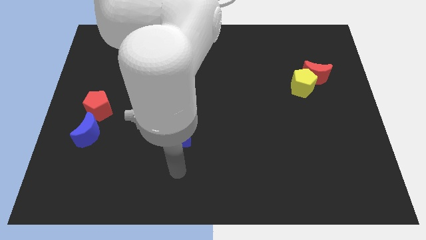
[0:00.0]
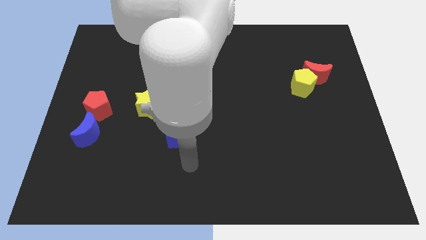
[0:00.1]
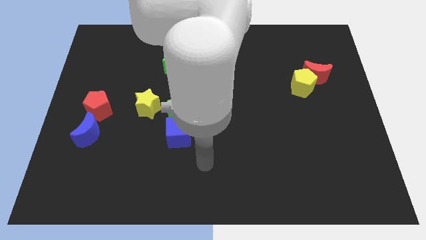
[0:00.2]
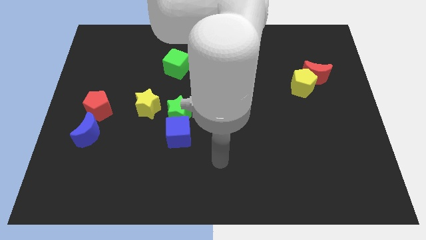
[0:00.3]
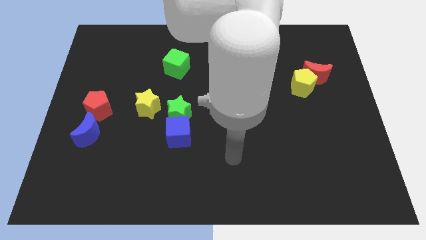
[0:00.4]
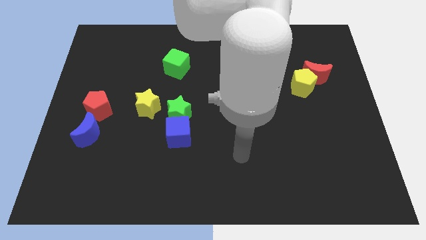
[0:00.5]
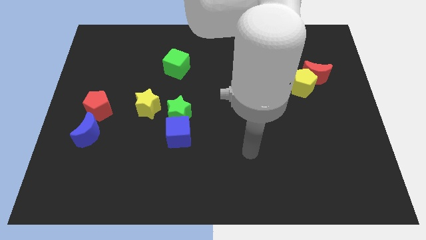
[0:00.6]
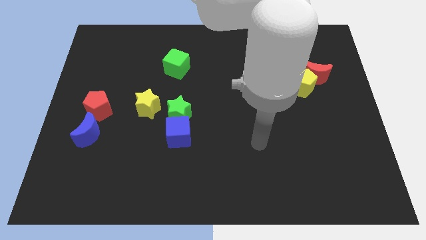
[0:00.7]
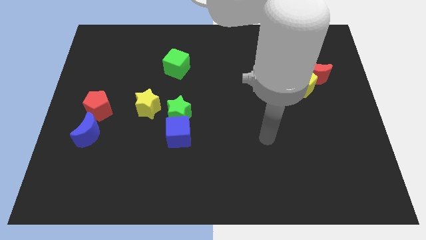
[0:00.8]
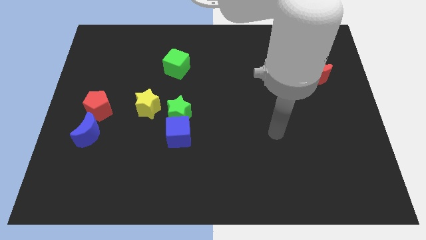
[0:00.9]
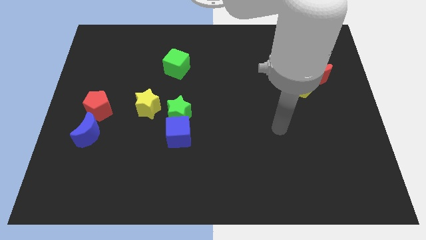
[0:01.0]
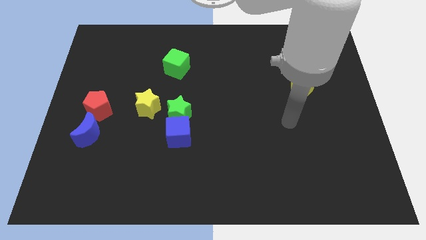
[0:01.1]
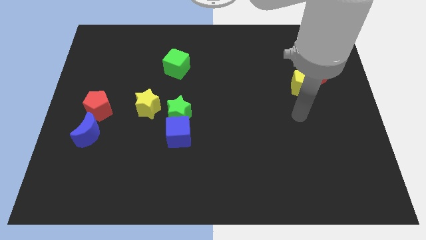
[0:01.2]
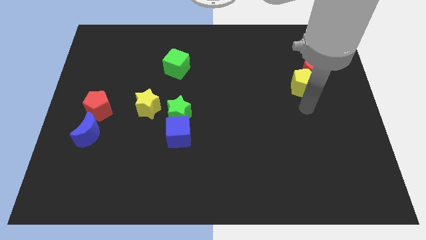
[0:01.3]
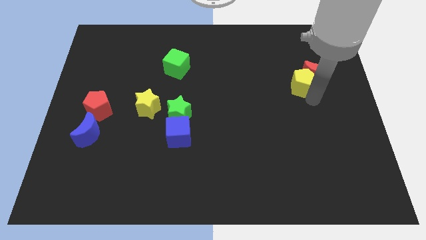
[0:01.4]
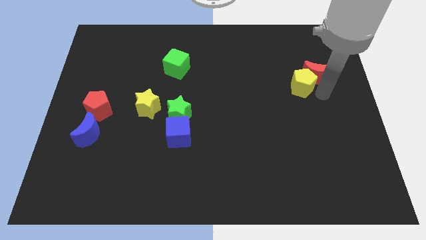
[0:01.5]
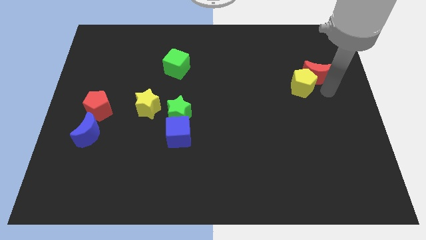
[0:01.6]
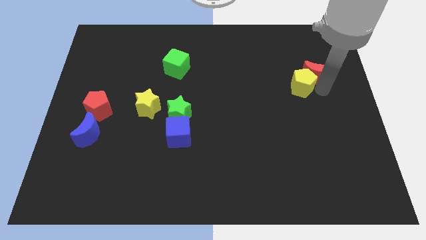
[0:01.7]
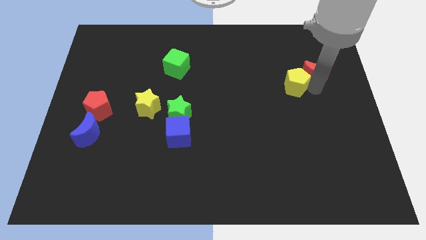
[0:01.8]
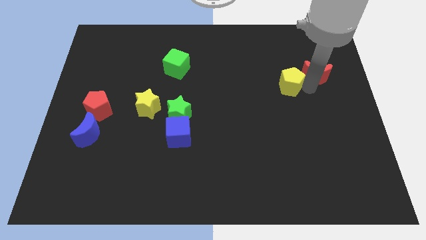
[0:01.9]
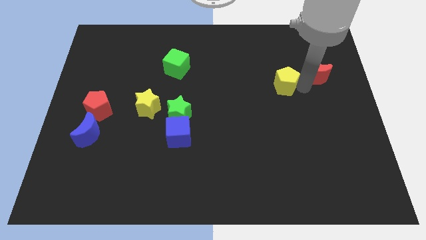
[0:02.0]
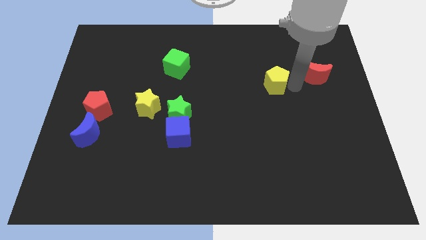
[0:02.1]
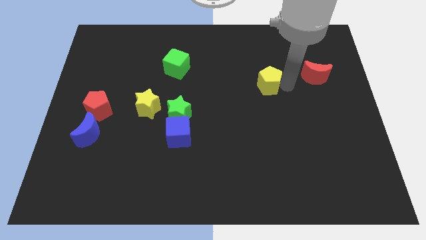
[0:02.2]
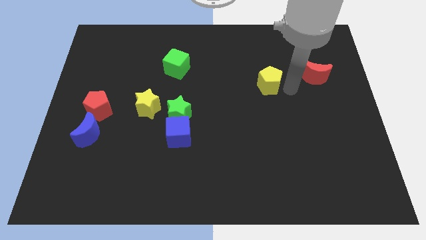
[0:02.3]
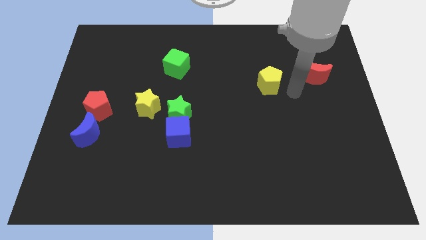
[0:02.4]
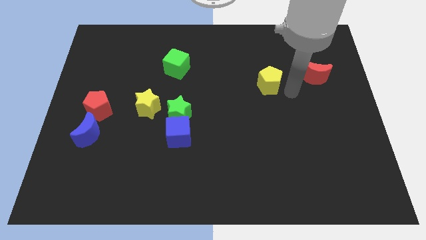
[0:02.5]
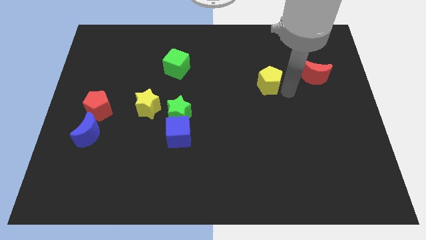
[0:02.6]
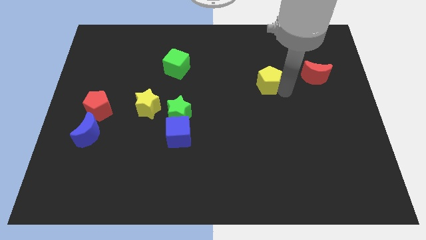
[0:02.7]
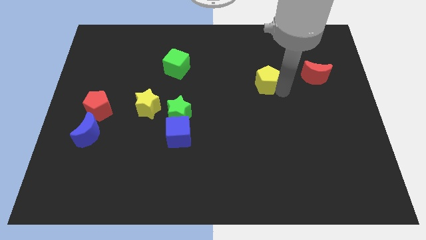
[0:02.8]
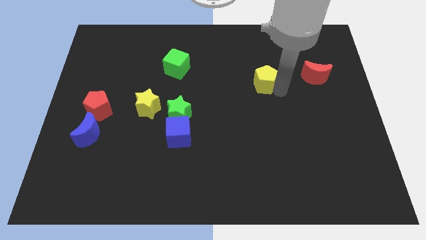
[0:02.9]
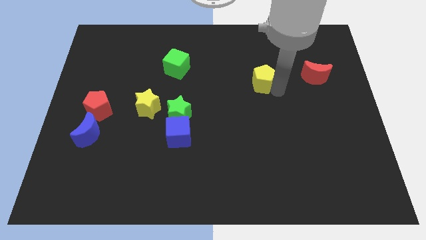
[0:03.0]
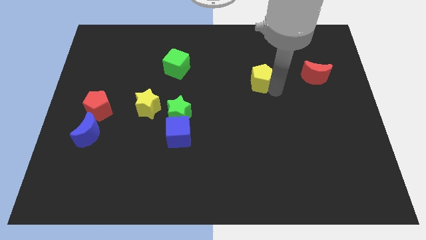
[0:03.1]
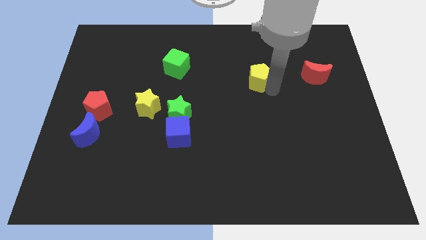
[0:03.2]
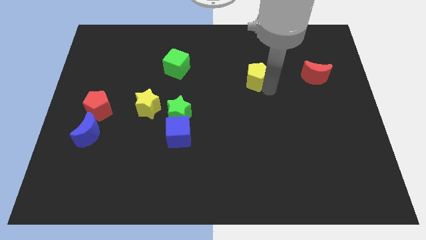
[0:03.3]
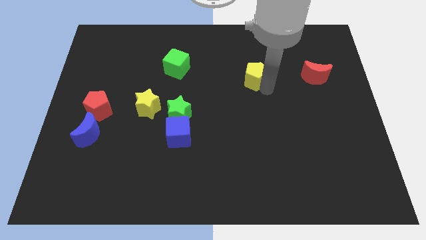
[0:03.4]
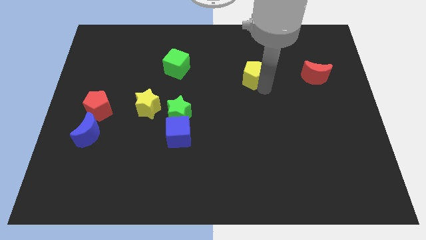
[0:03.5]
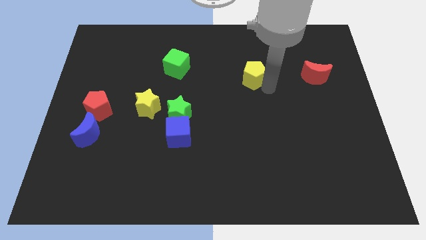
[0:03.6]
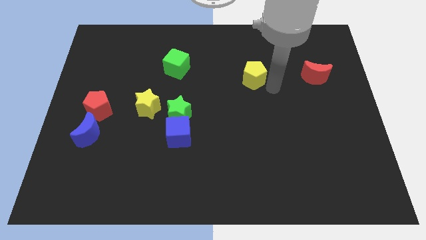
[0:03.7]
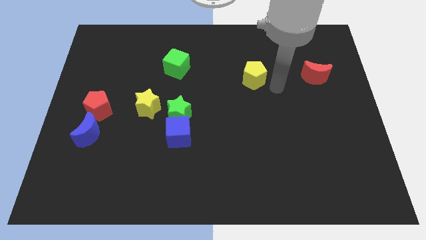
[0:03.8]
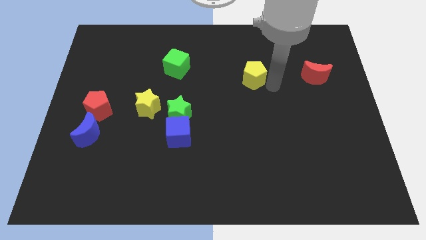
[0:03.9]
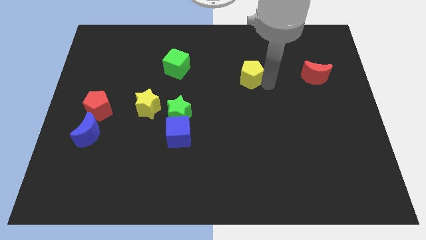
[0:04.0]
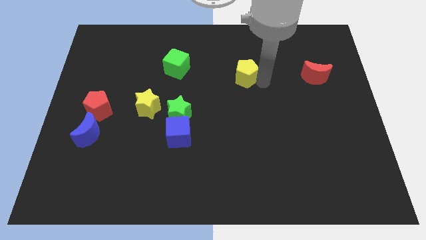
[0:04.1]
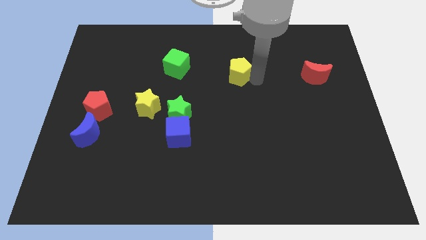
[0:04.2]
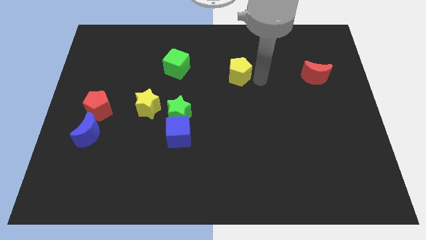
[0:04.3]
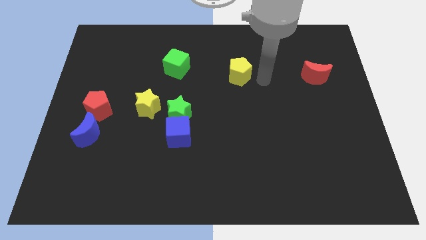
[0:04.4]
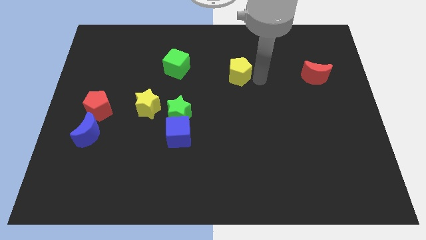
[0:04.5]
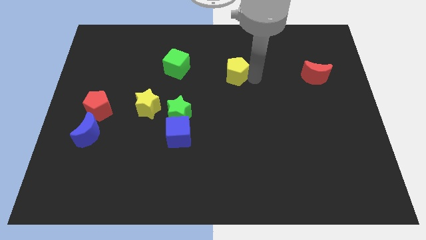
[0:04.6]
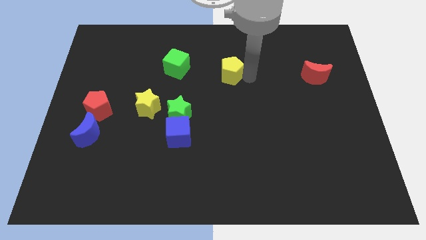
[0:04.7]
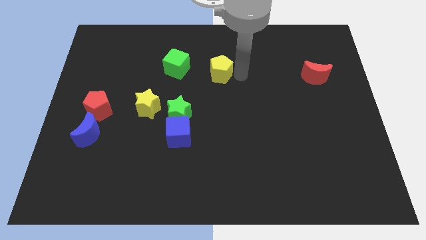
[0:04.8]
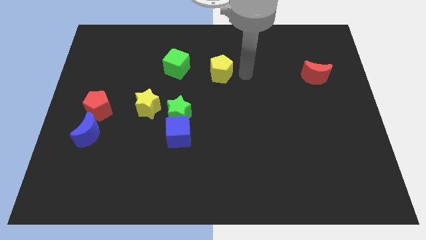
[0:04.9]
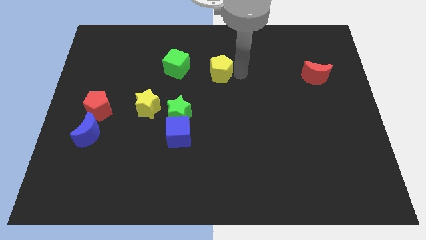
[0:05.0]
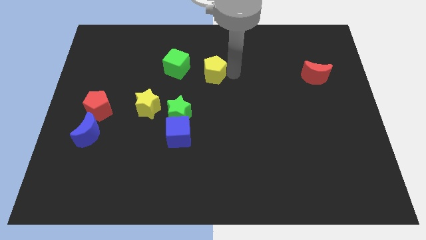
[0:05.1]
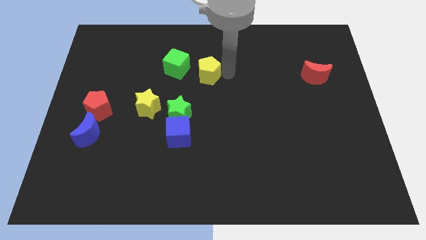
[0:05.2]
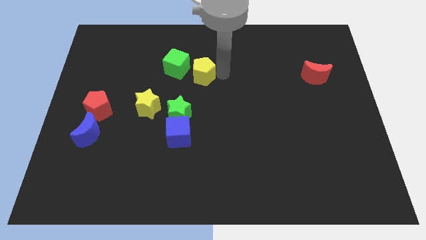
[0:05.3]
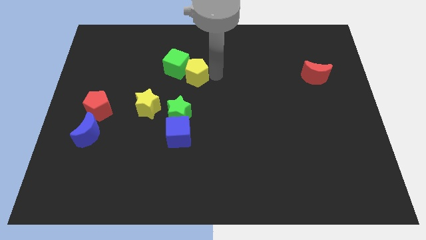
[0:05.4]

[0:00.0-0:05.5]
slide the yellow pentagon close to the green cube

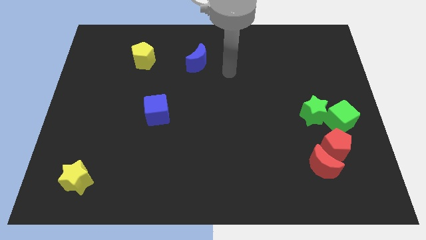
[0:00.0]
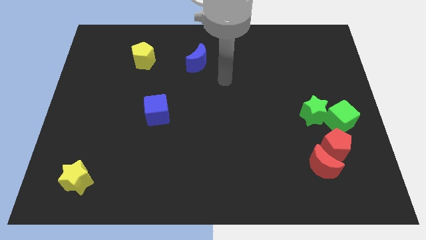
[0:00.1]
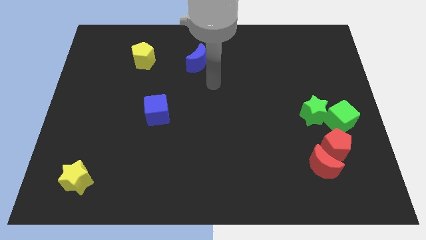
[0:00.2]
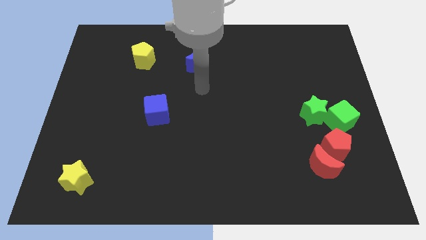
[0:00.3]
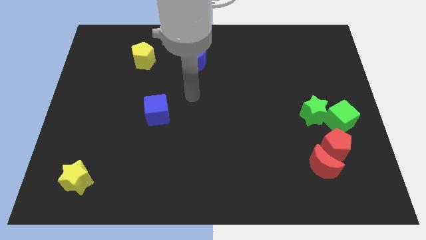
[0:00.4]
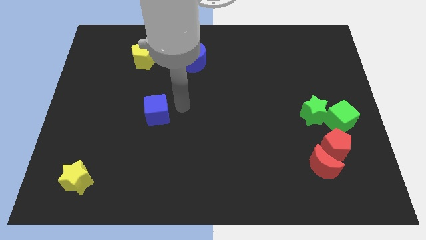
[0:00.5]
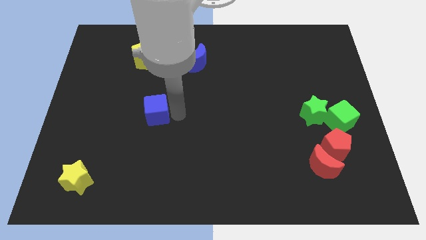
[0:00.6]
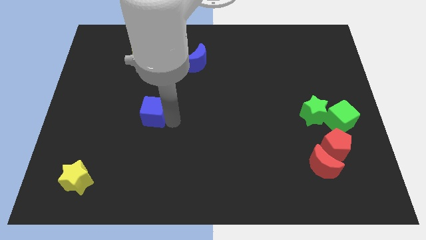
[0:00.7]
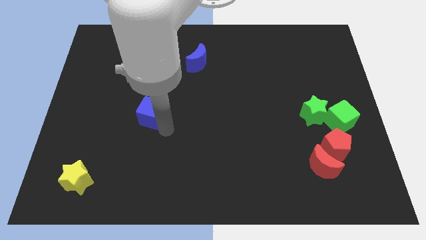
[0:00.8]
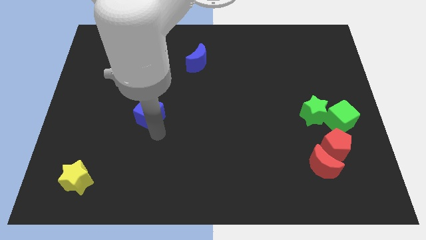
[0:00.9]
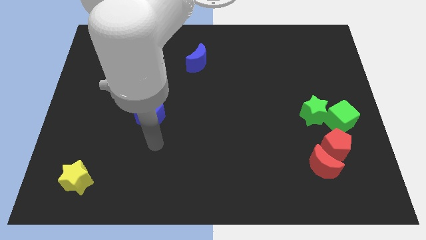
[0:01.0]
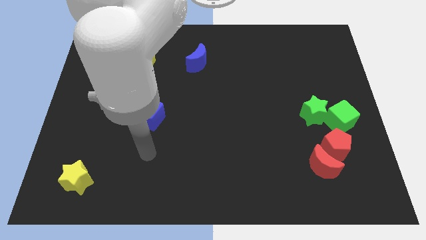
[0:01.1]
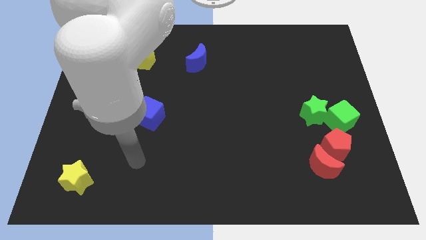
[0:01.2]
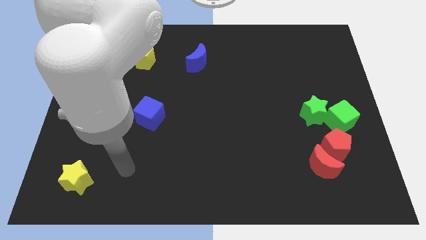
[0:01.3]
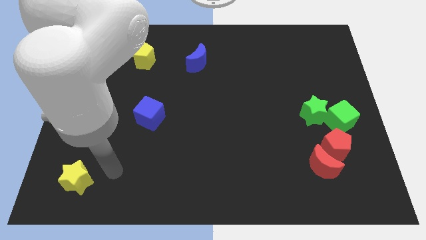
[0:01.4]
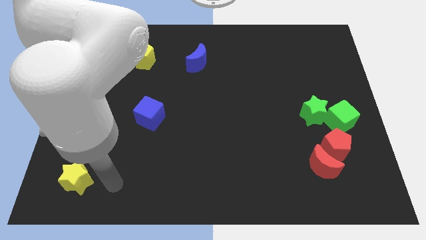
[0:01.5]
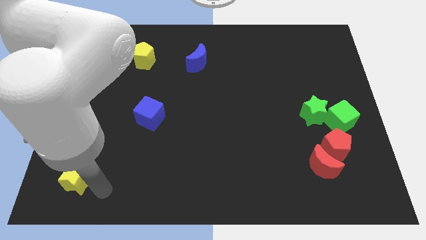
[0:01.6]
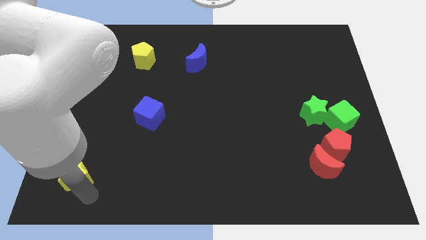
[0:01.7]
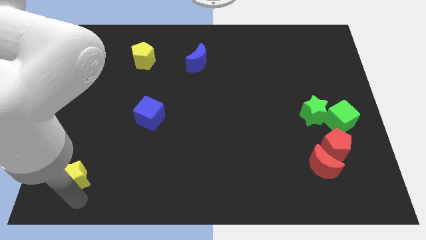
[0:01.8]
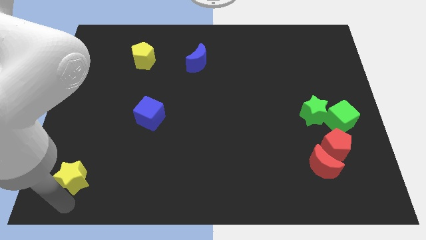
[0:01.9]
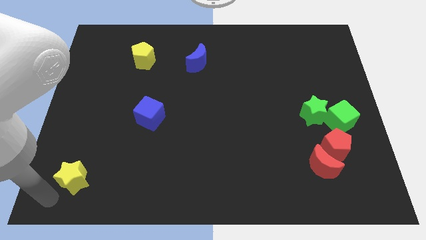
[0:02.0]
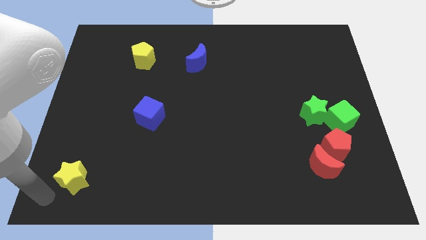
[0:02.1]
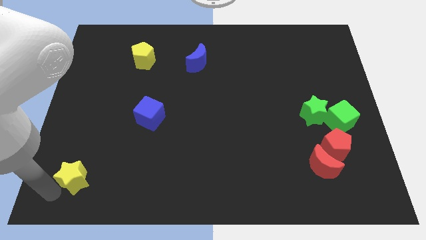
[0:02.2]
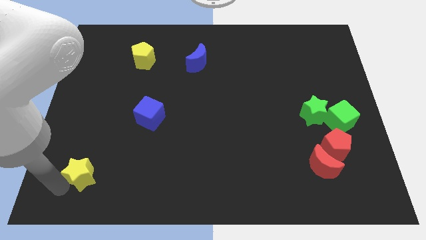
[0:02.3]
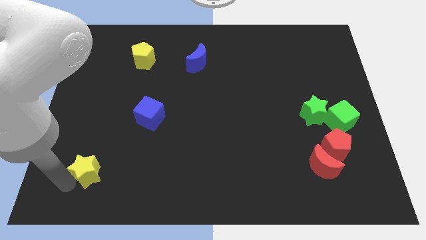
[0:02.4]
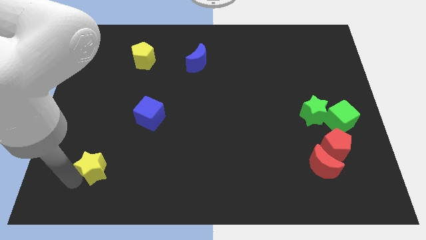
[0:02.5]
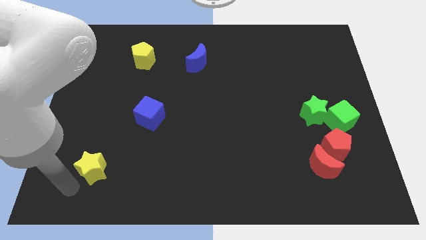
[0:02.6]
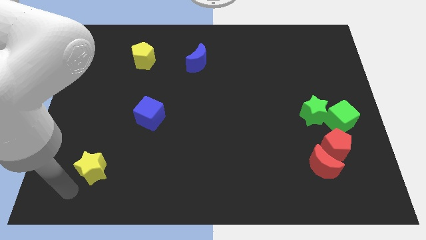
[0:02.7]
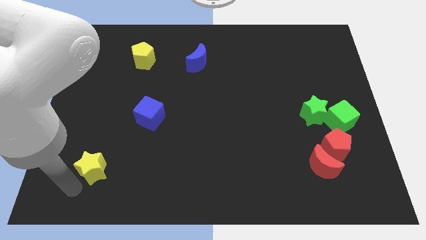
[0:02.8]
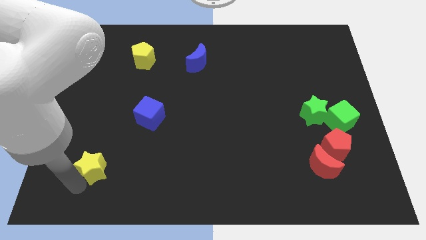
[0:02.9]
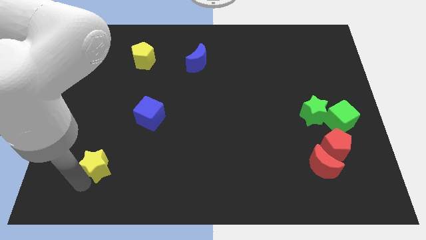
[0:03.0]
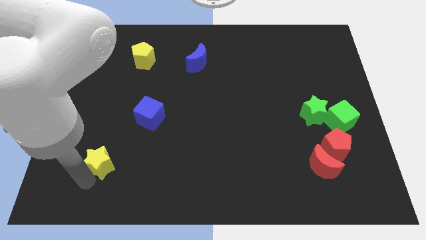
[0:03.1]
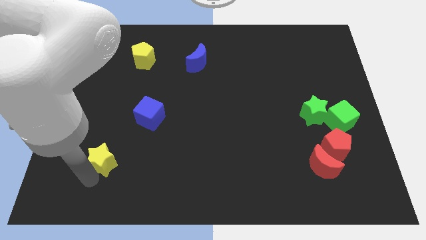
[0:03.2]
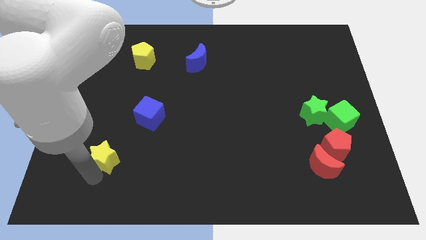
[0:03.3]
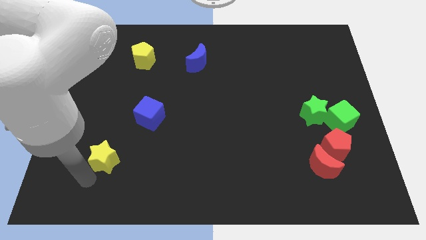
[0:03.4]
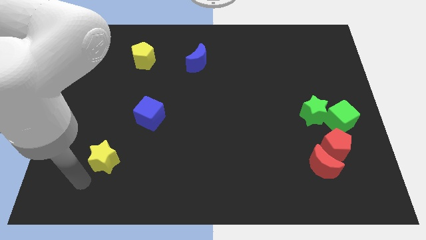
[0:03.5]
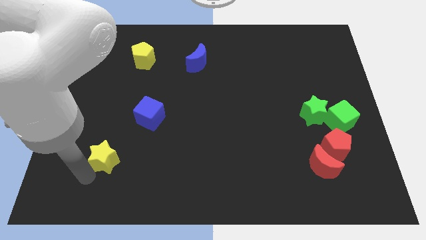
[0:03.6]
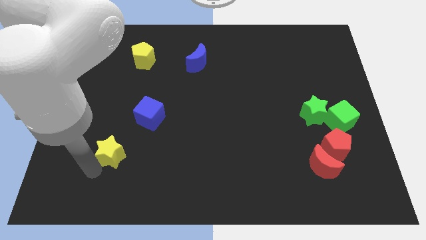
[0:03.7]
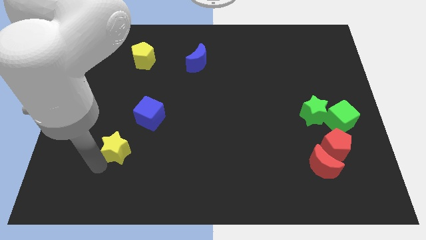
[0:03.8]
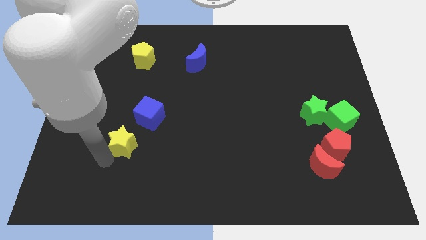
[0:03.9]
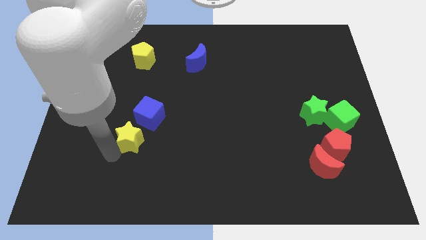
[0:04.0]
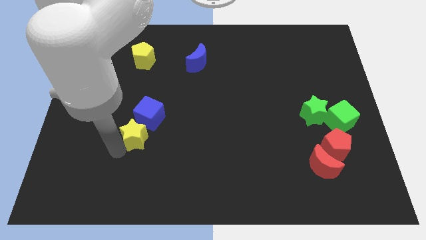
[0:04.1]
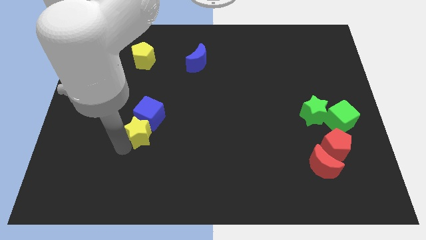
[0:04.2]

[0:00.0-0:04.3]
move the yellow star next to the blue cube
